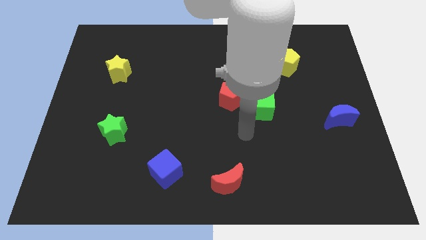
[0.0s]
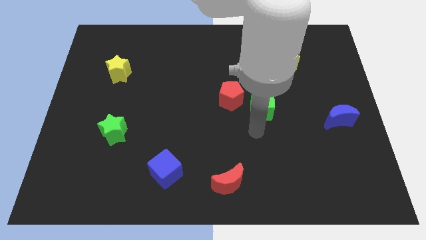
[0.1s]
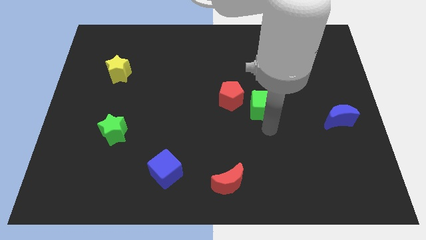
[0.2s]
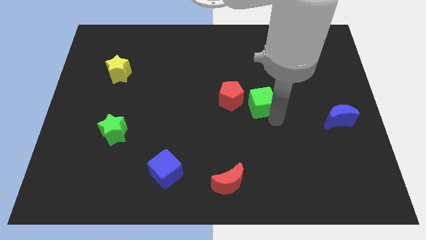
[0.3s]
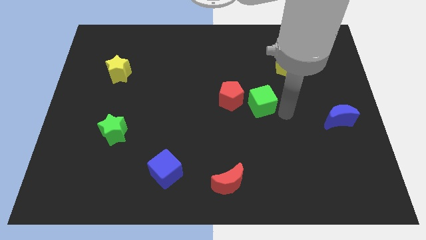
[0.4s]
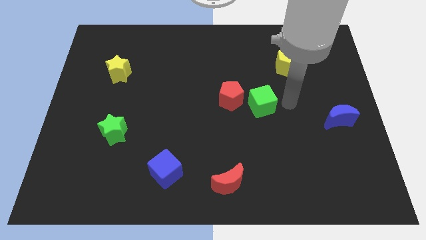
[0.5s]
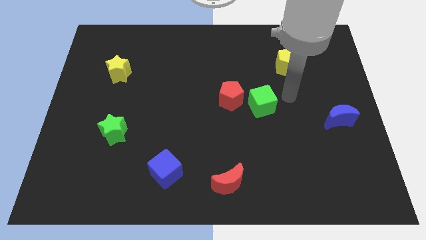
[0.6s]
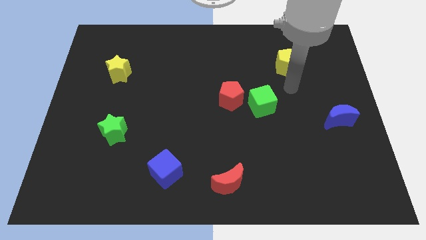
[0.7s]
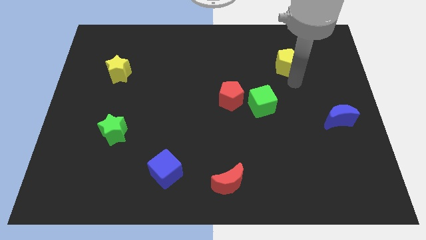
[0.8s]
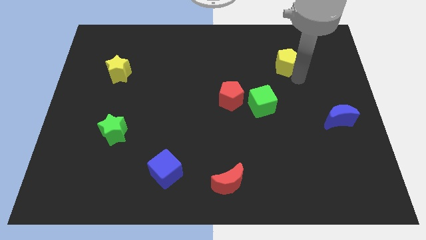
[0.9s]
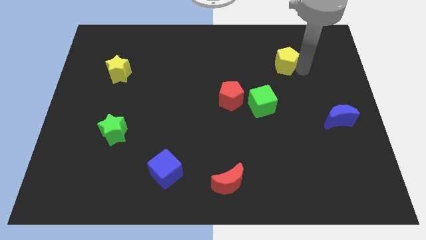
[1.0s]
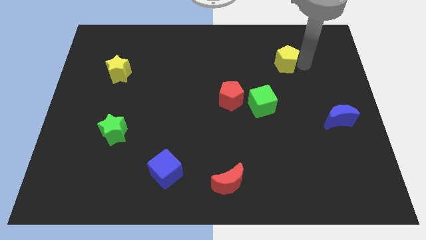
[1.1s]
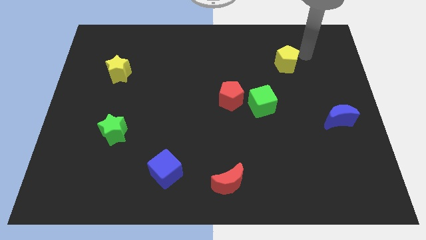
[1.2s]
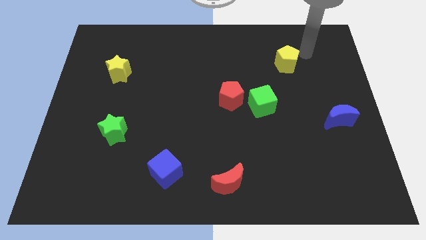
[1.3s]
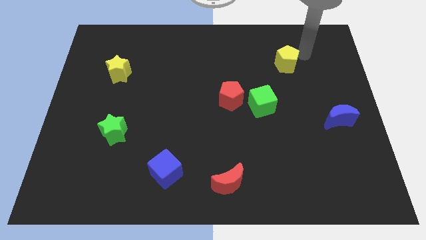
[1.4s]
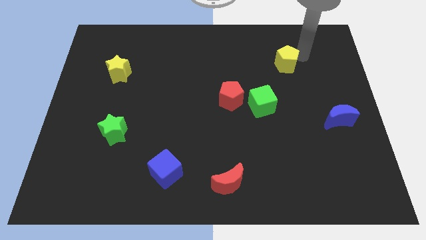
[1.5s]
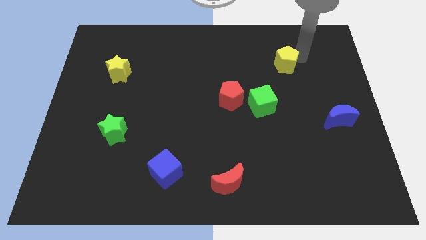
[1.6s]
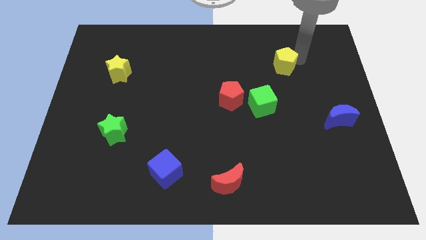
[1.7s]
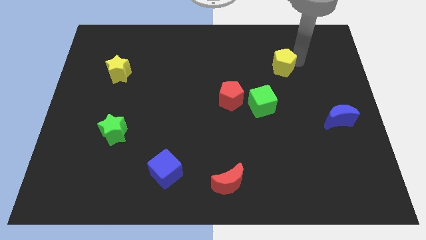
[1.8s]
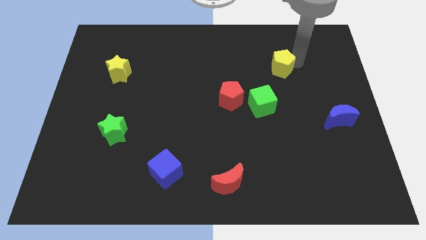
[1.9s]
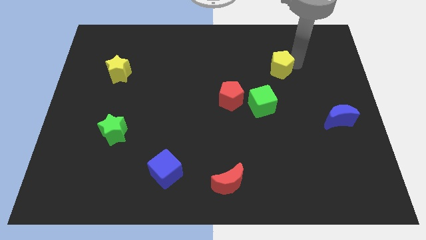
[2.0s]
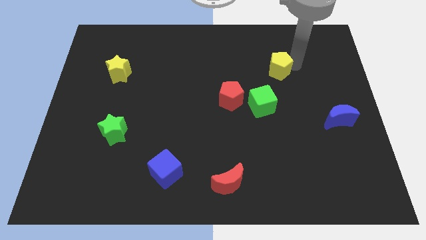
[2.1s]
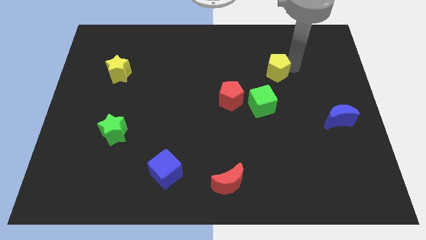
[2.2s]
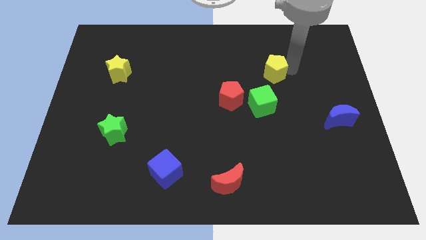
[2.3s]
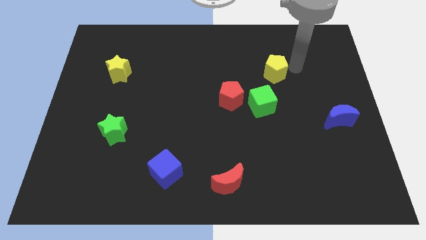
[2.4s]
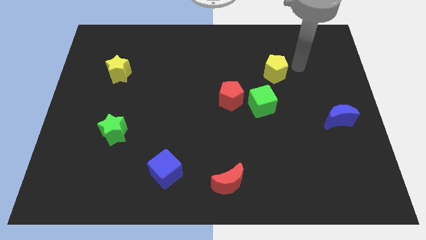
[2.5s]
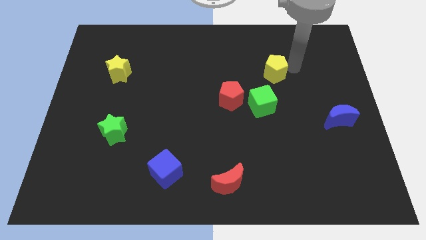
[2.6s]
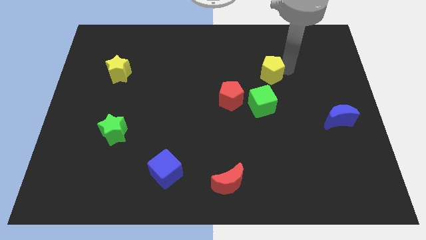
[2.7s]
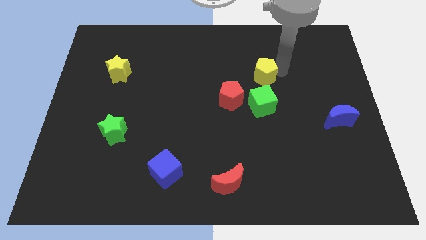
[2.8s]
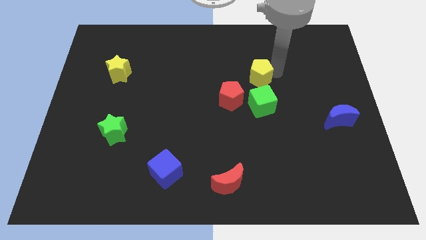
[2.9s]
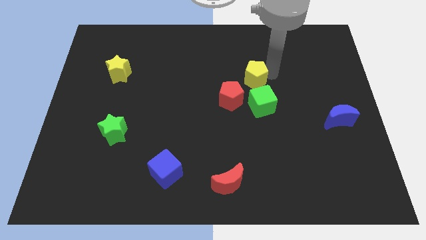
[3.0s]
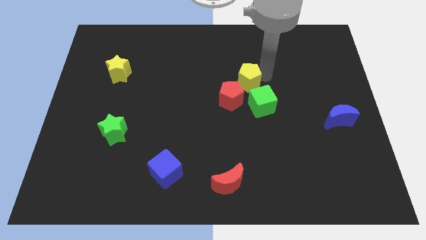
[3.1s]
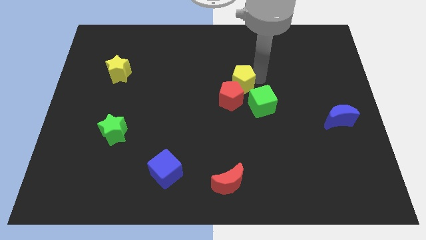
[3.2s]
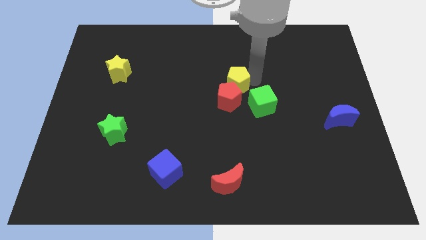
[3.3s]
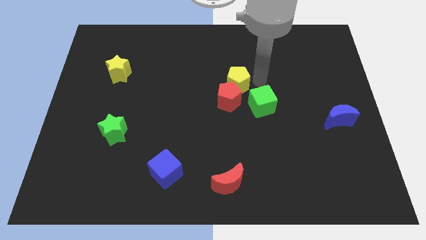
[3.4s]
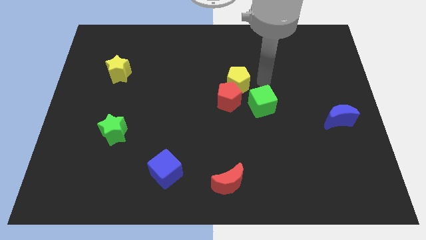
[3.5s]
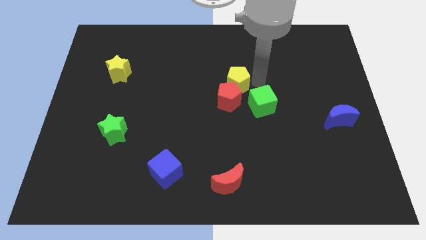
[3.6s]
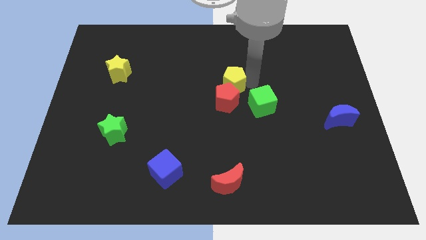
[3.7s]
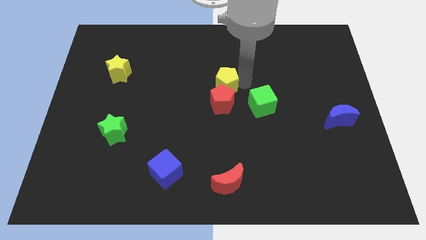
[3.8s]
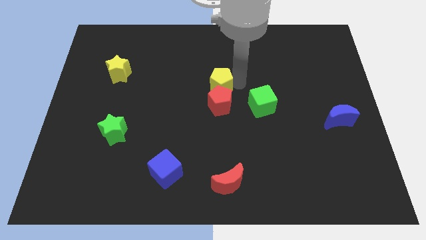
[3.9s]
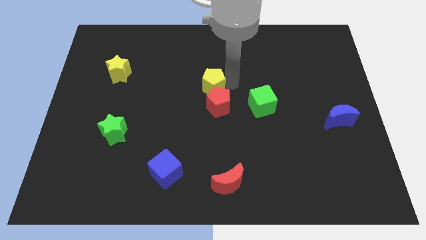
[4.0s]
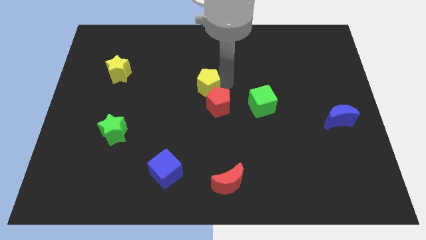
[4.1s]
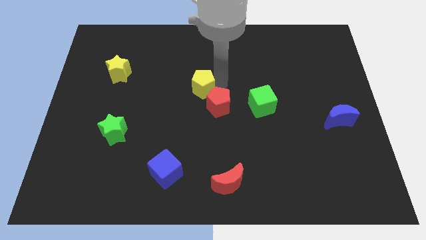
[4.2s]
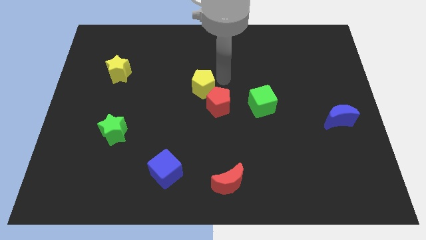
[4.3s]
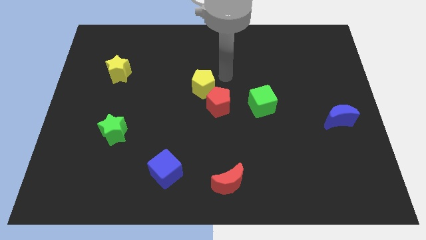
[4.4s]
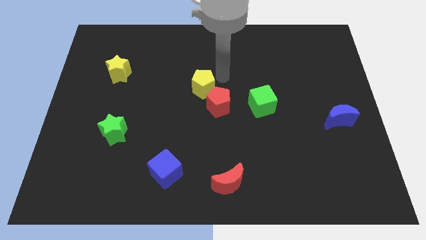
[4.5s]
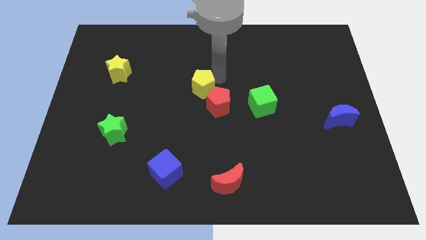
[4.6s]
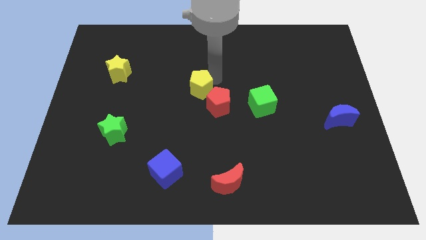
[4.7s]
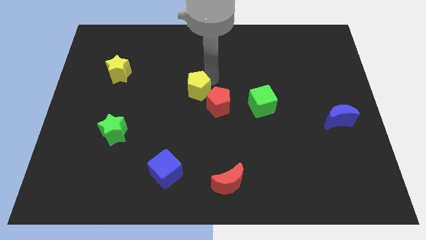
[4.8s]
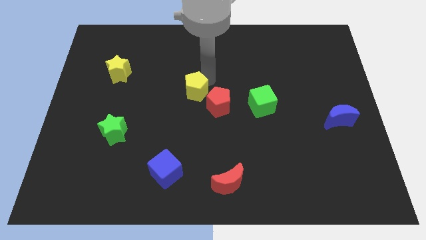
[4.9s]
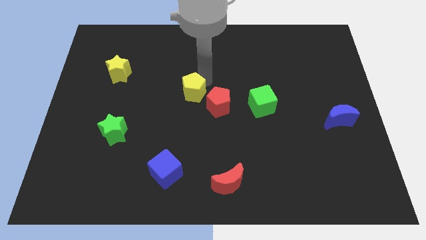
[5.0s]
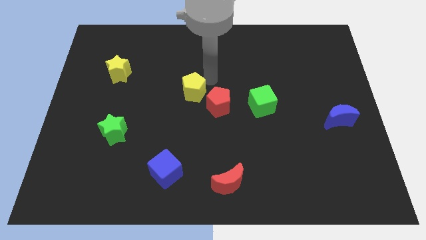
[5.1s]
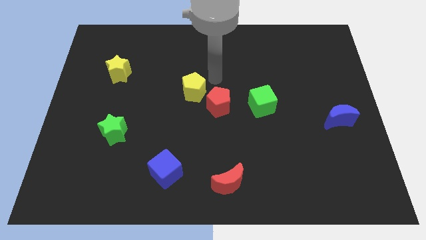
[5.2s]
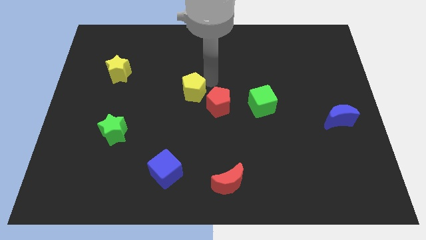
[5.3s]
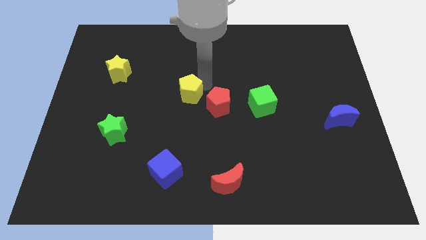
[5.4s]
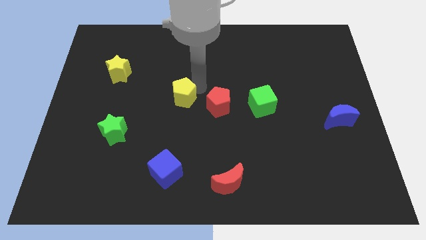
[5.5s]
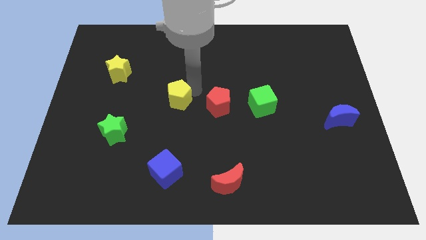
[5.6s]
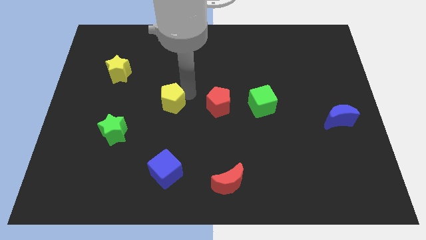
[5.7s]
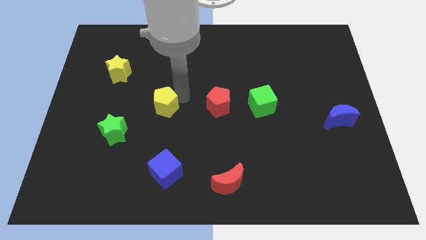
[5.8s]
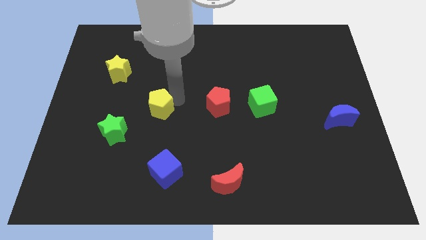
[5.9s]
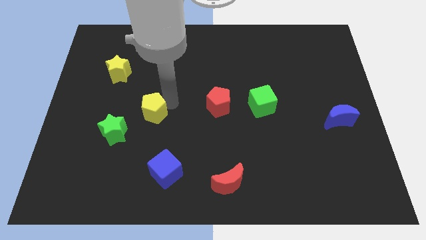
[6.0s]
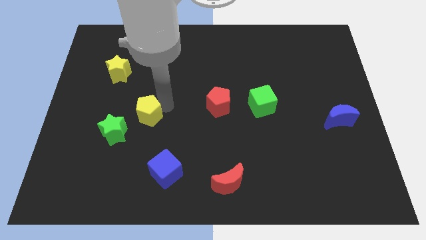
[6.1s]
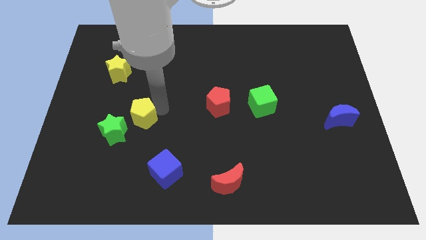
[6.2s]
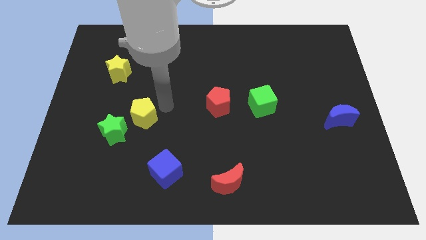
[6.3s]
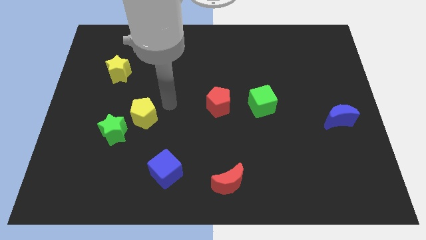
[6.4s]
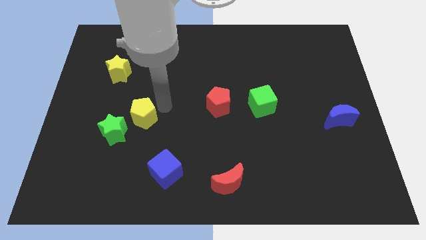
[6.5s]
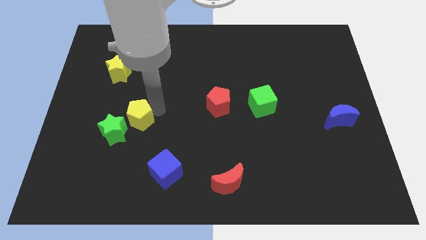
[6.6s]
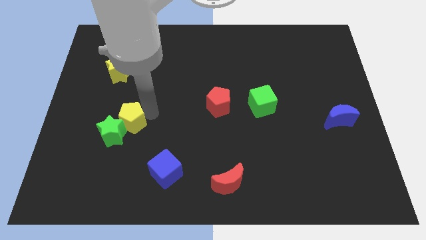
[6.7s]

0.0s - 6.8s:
move the yellow pentagon next to the green star
